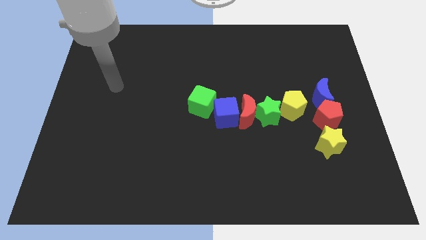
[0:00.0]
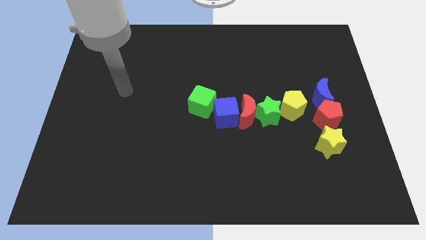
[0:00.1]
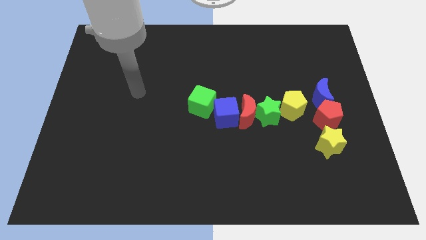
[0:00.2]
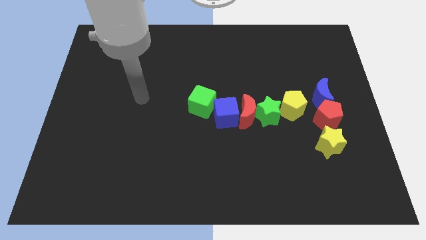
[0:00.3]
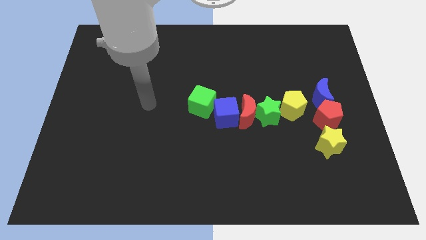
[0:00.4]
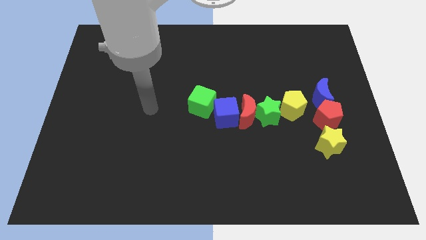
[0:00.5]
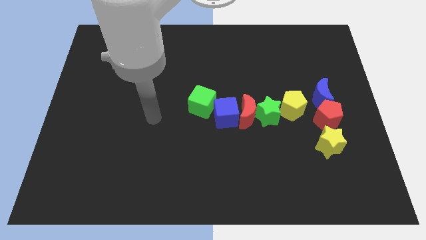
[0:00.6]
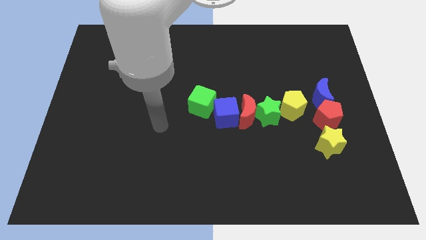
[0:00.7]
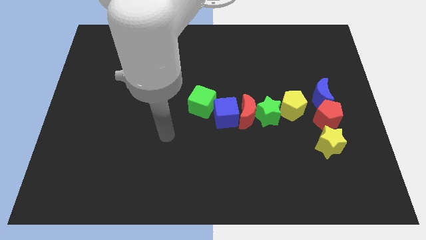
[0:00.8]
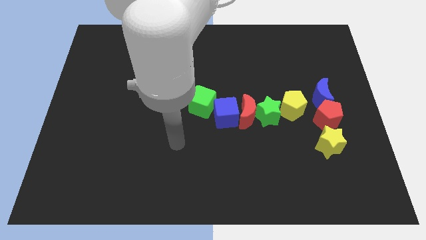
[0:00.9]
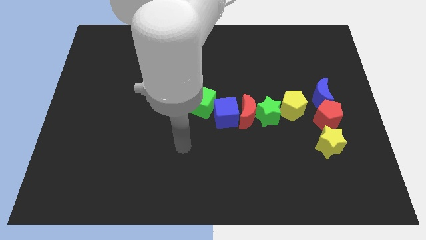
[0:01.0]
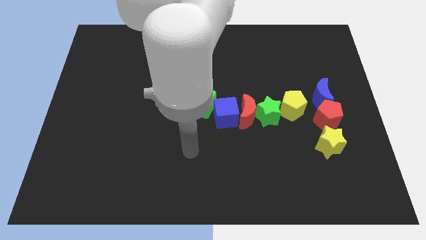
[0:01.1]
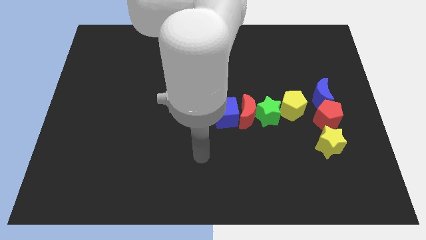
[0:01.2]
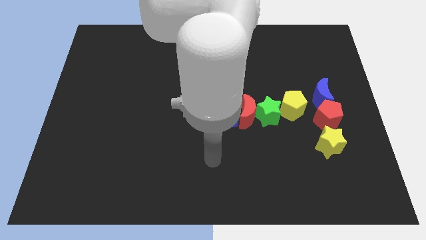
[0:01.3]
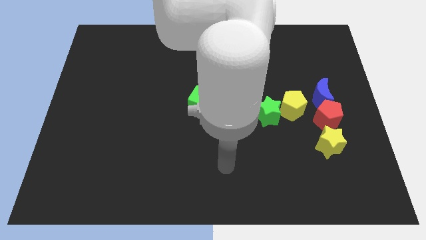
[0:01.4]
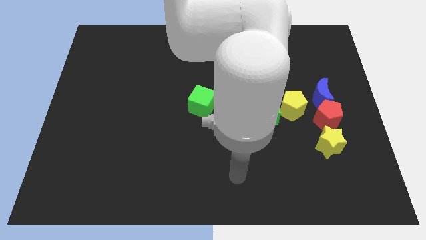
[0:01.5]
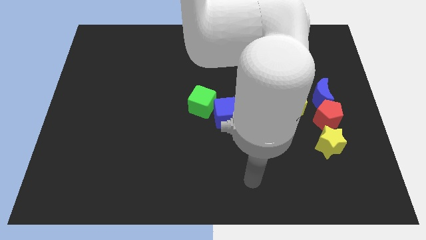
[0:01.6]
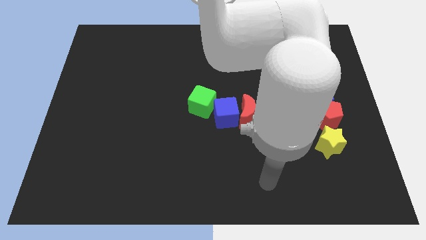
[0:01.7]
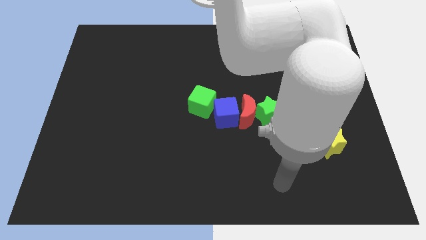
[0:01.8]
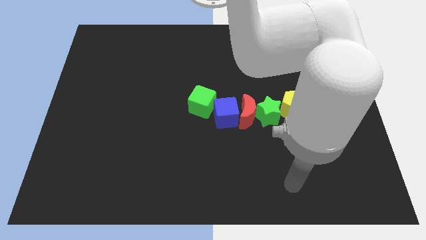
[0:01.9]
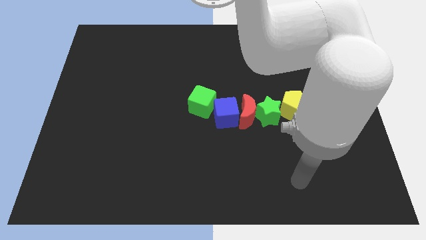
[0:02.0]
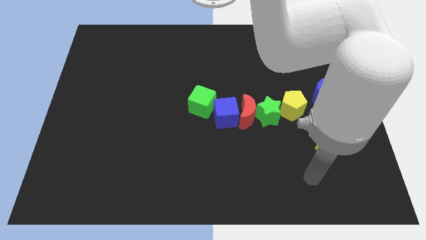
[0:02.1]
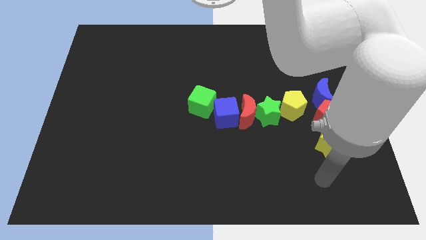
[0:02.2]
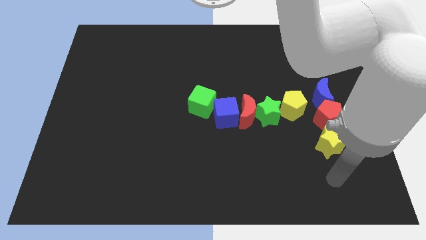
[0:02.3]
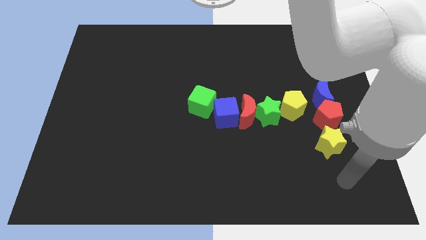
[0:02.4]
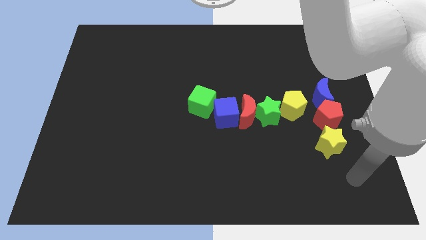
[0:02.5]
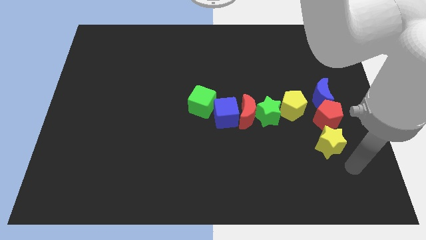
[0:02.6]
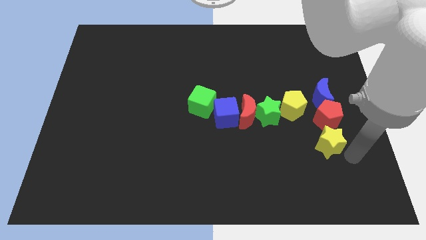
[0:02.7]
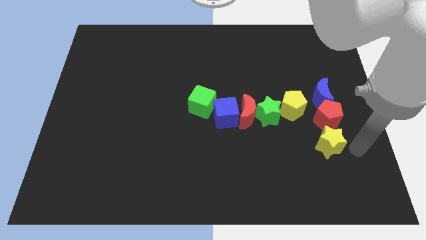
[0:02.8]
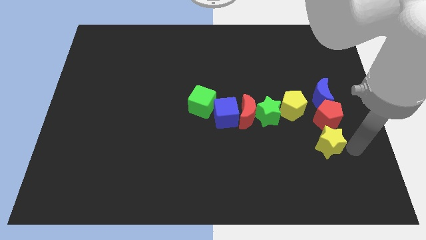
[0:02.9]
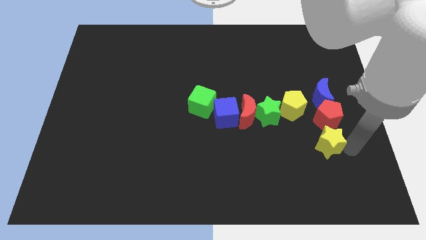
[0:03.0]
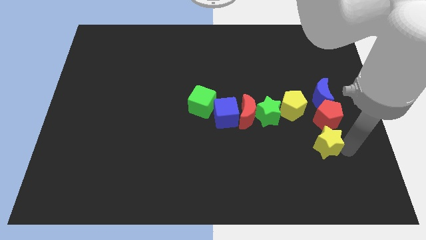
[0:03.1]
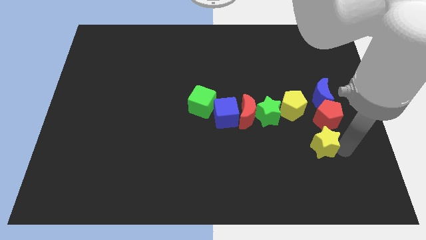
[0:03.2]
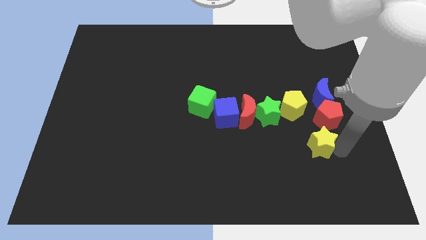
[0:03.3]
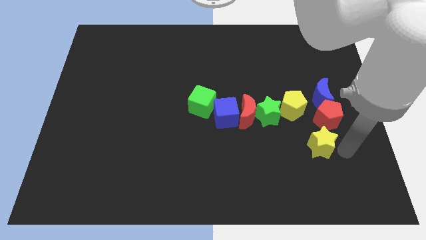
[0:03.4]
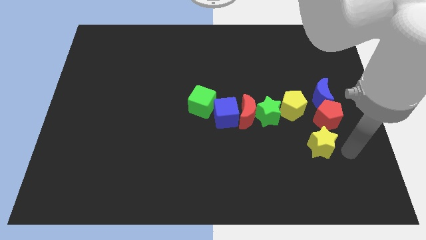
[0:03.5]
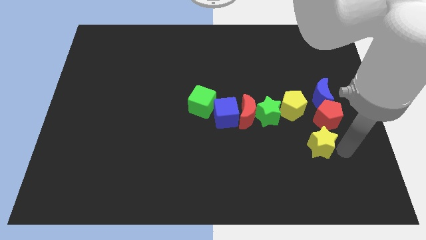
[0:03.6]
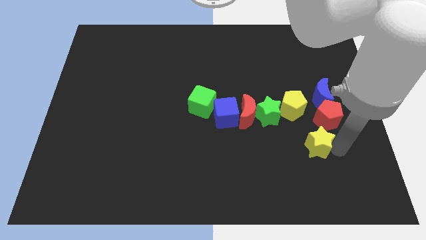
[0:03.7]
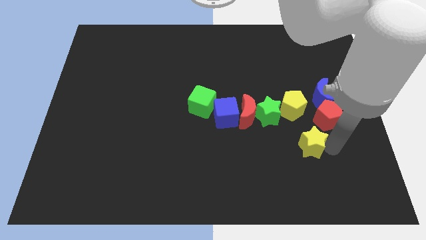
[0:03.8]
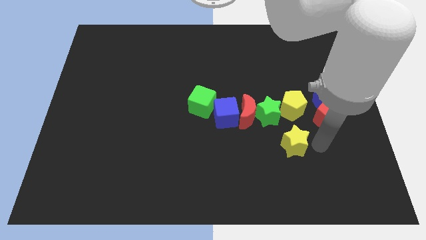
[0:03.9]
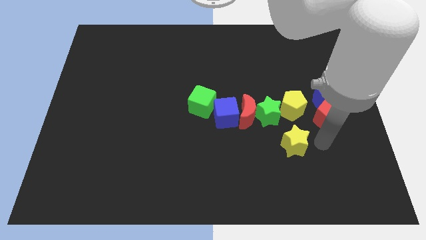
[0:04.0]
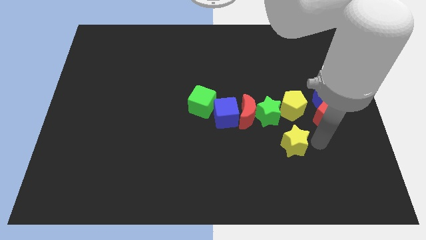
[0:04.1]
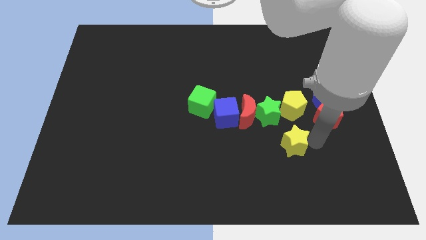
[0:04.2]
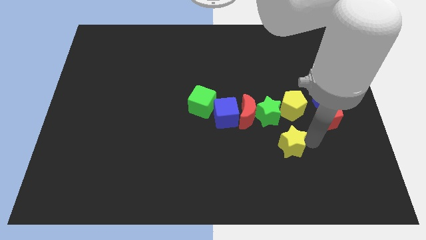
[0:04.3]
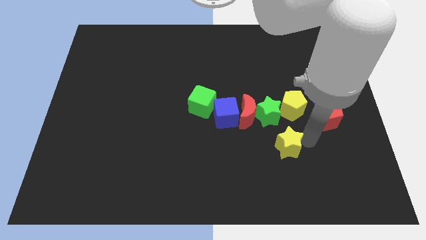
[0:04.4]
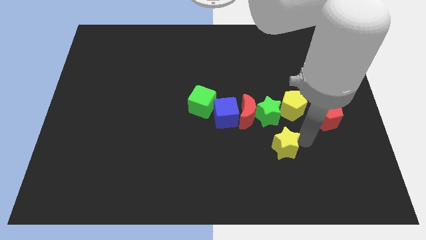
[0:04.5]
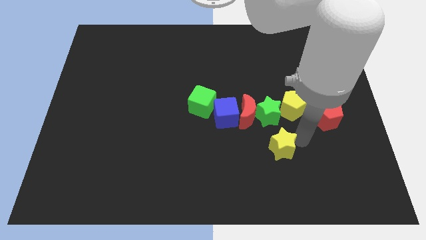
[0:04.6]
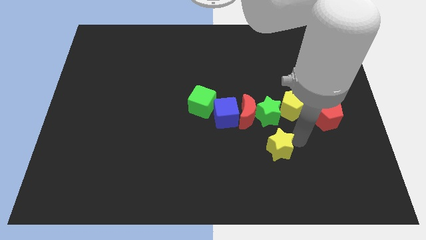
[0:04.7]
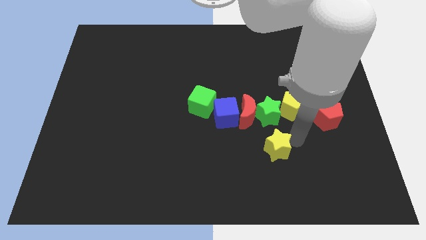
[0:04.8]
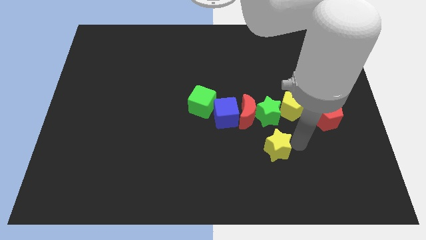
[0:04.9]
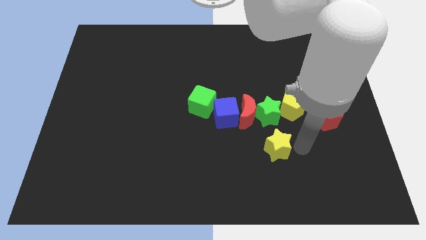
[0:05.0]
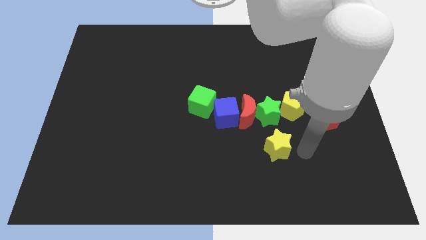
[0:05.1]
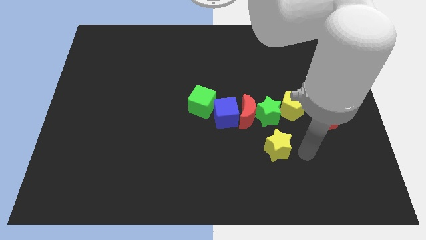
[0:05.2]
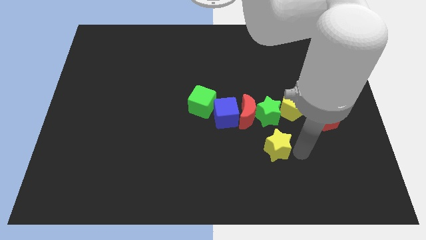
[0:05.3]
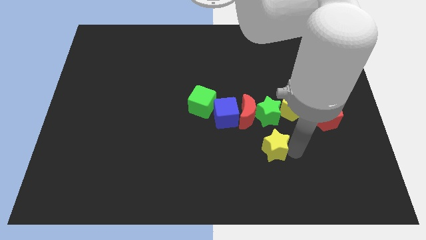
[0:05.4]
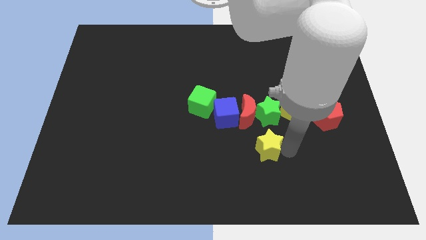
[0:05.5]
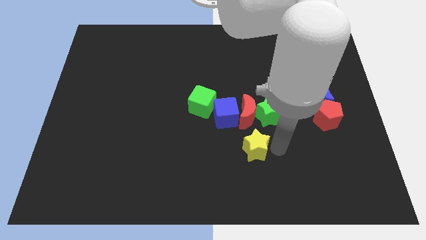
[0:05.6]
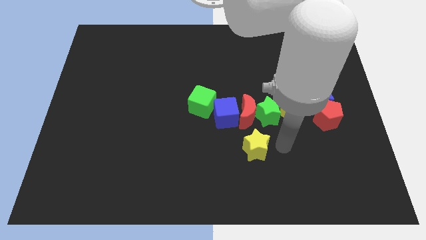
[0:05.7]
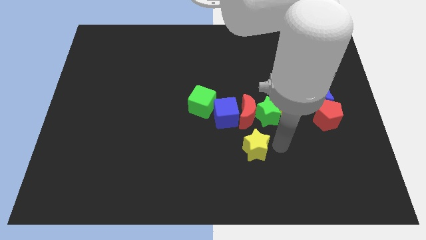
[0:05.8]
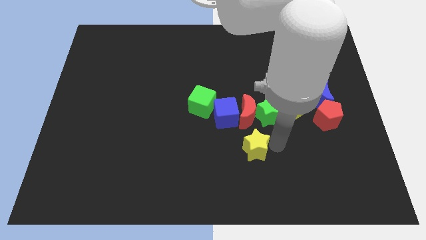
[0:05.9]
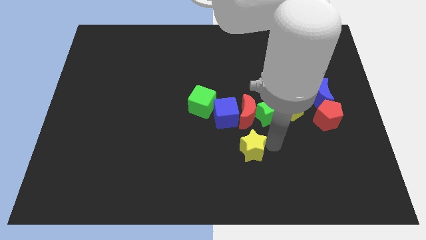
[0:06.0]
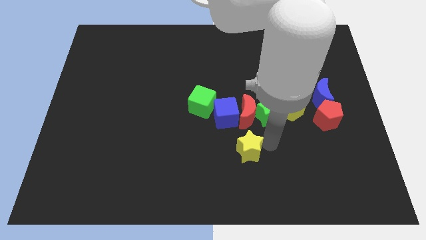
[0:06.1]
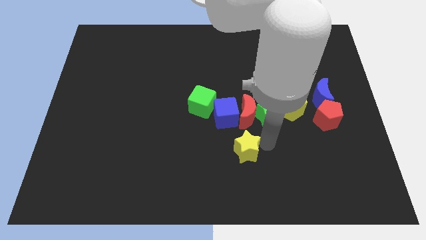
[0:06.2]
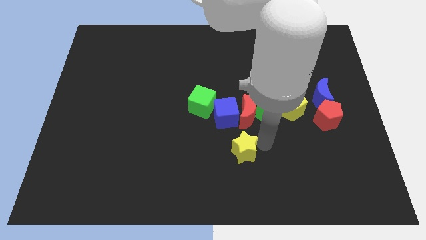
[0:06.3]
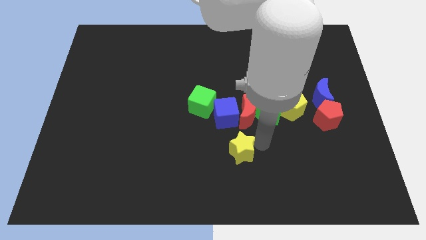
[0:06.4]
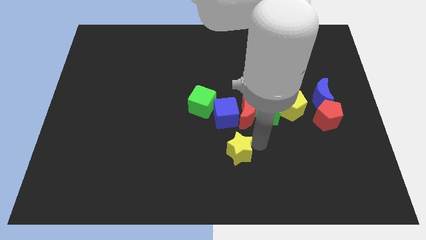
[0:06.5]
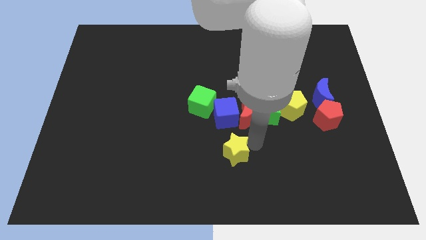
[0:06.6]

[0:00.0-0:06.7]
push the yellow star to the left

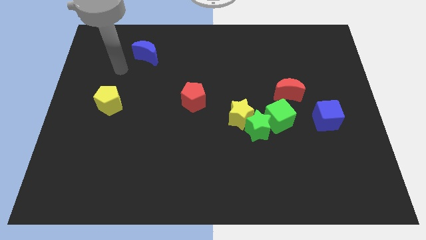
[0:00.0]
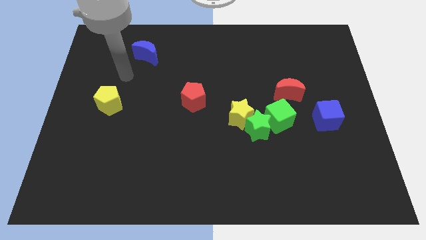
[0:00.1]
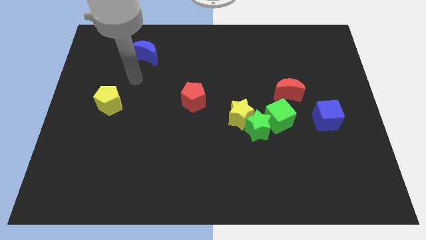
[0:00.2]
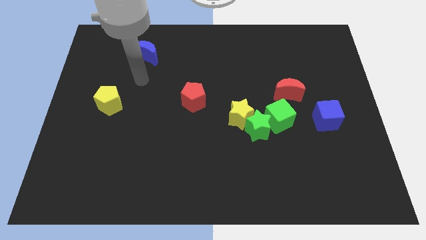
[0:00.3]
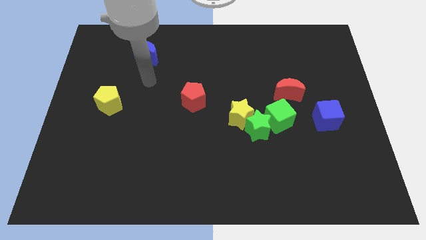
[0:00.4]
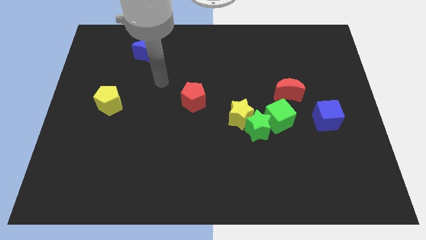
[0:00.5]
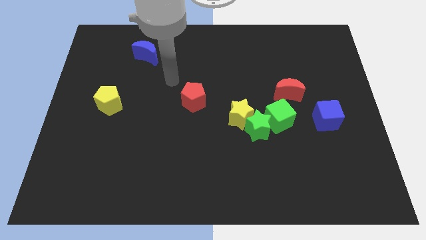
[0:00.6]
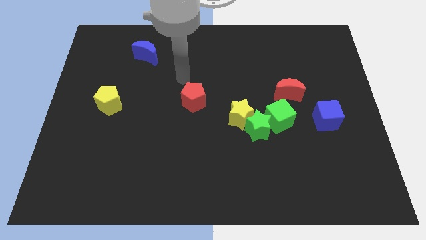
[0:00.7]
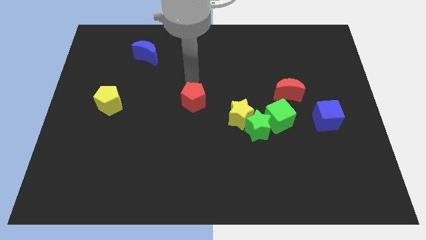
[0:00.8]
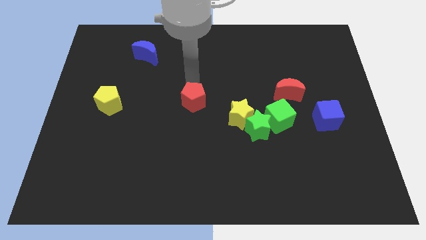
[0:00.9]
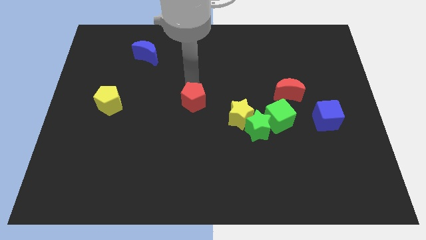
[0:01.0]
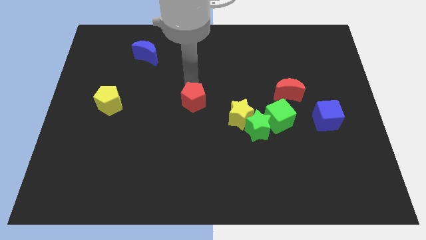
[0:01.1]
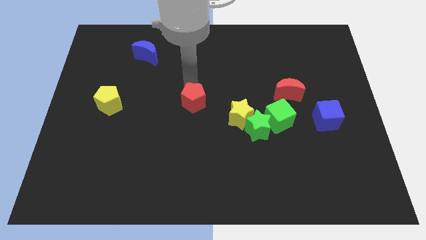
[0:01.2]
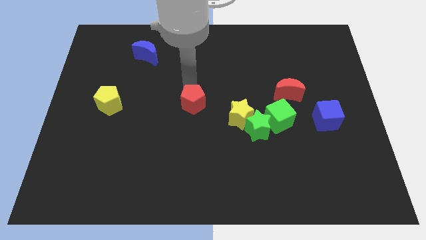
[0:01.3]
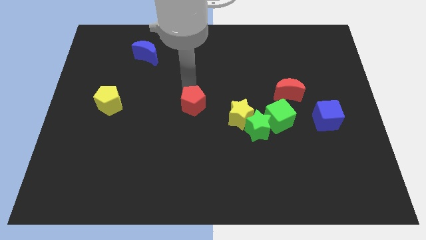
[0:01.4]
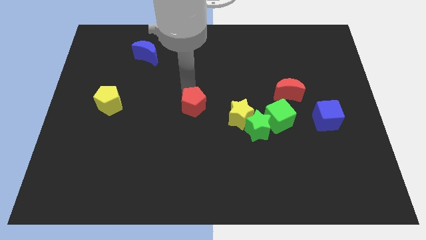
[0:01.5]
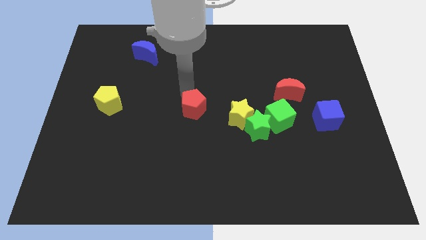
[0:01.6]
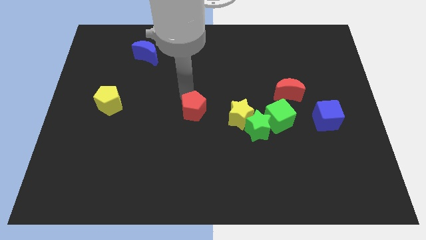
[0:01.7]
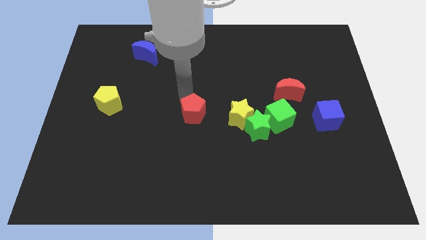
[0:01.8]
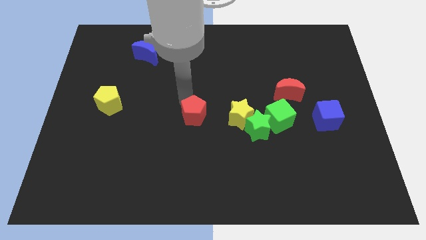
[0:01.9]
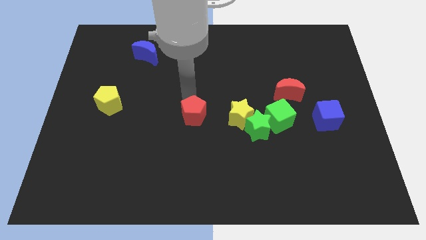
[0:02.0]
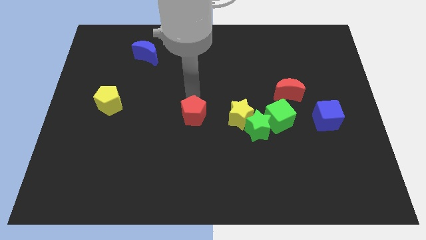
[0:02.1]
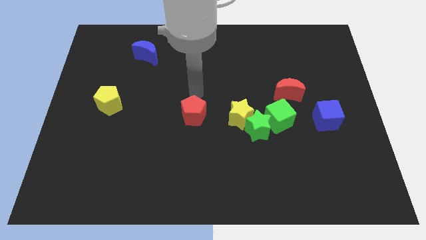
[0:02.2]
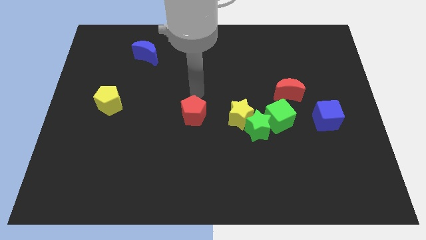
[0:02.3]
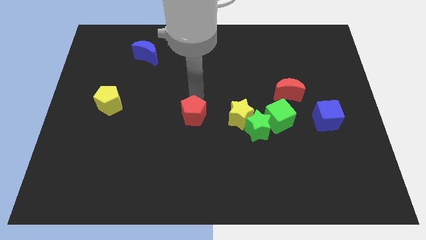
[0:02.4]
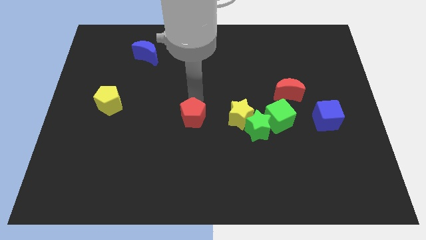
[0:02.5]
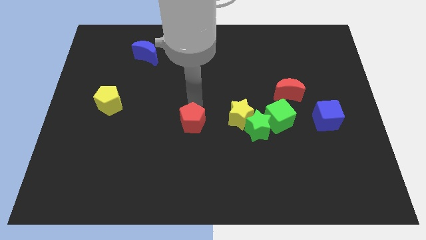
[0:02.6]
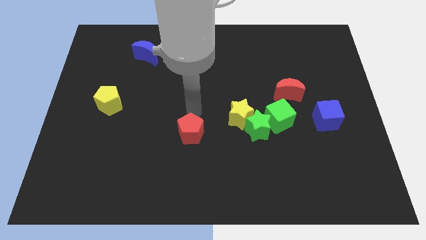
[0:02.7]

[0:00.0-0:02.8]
slightly push the red pentagon down
